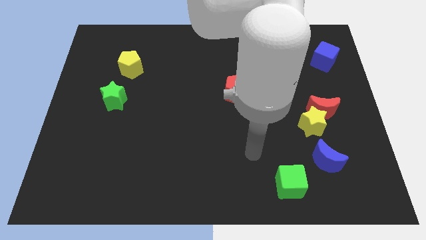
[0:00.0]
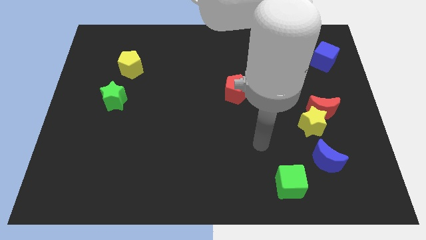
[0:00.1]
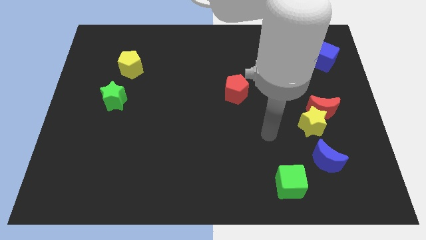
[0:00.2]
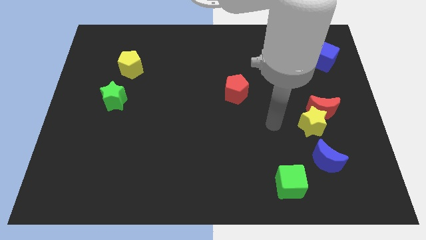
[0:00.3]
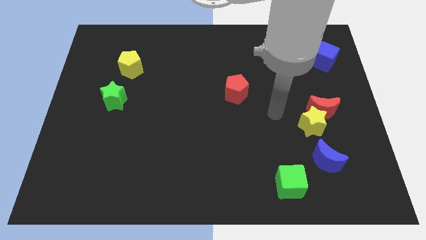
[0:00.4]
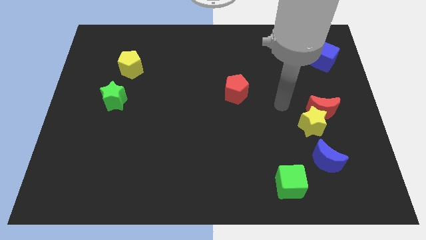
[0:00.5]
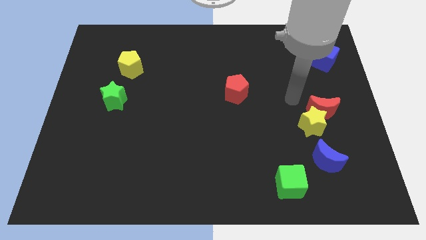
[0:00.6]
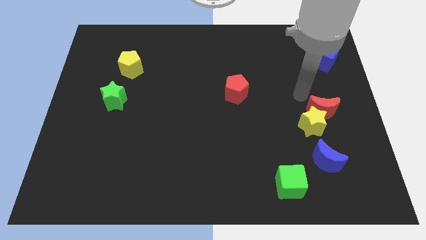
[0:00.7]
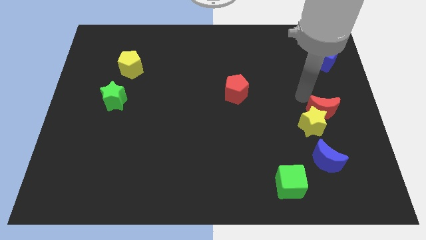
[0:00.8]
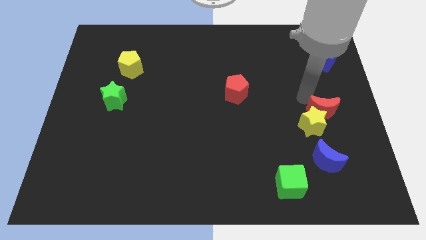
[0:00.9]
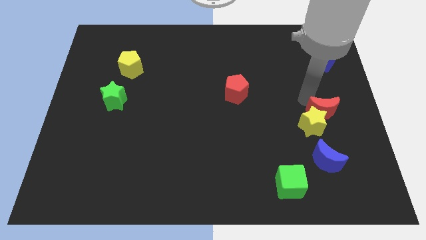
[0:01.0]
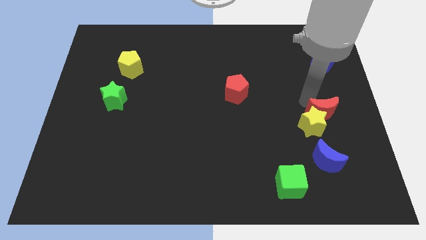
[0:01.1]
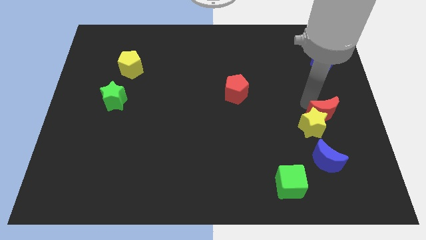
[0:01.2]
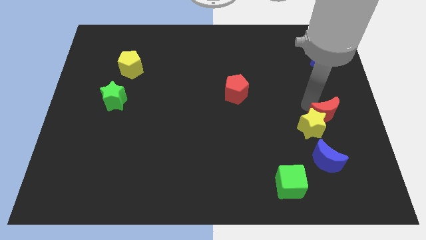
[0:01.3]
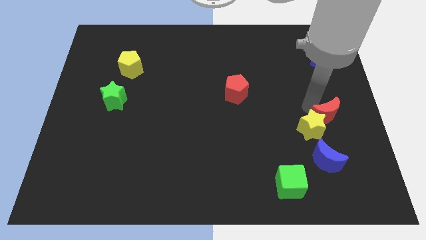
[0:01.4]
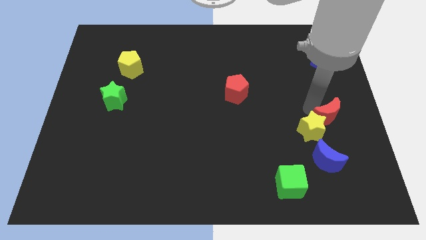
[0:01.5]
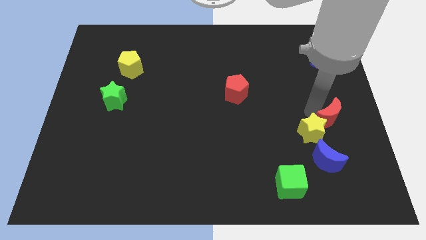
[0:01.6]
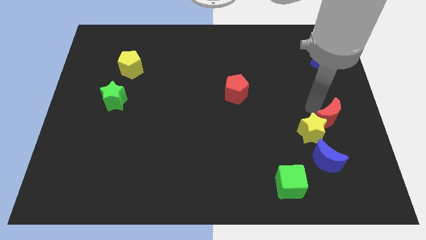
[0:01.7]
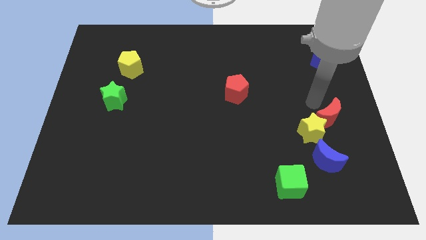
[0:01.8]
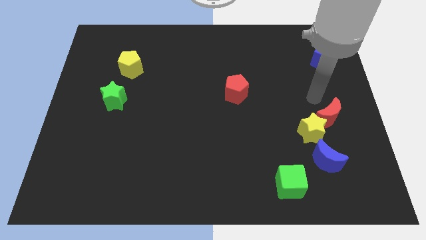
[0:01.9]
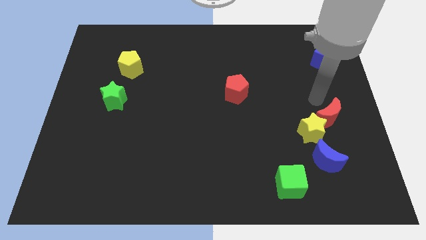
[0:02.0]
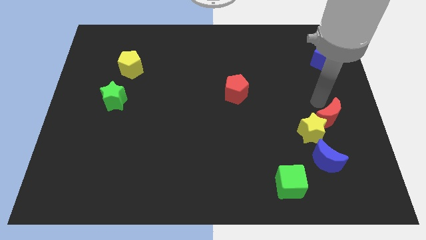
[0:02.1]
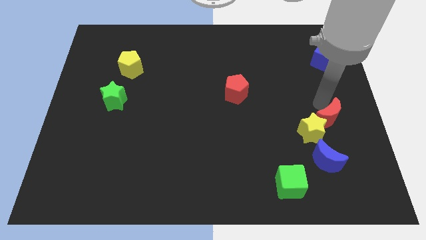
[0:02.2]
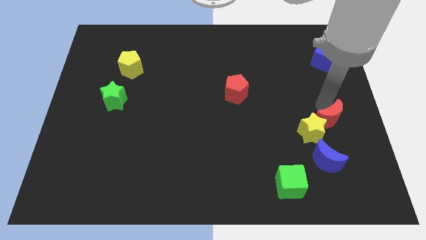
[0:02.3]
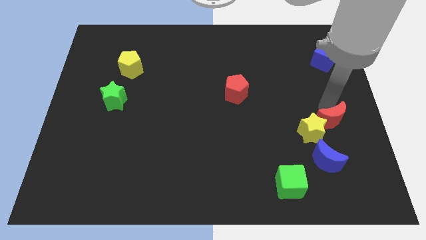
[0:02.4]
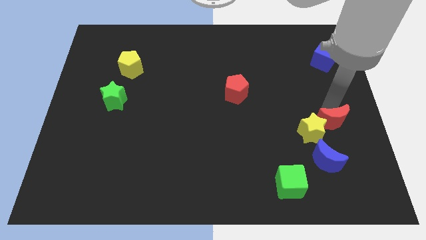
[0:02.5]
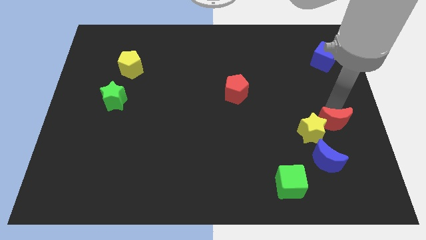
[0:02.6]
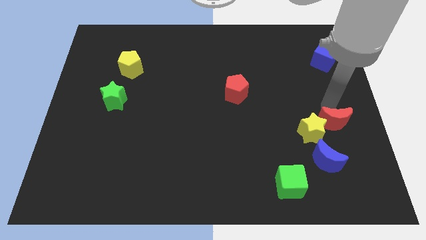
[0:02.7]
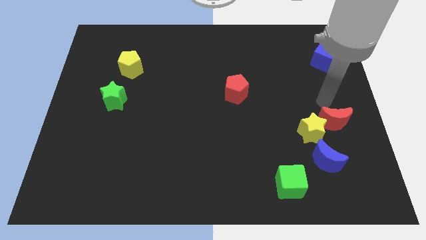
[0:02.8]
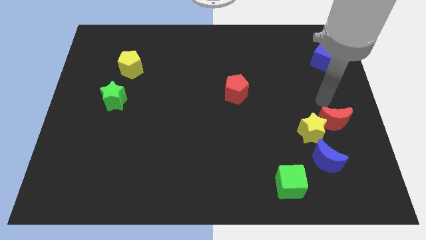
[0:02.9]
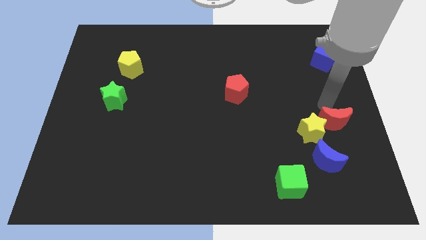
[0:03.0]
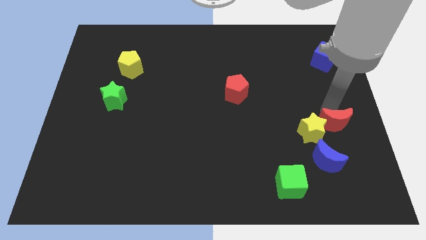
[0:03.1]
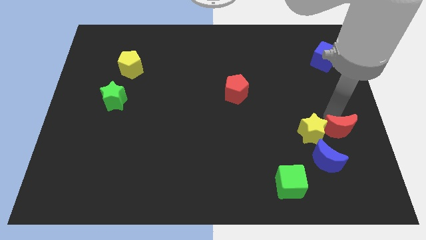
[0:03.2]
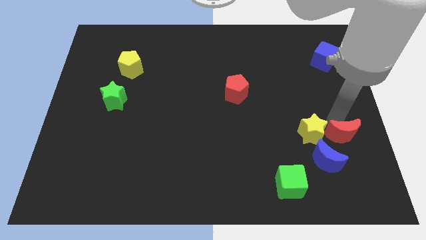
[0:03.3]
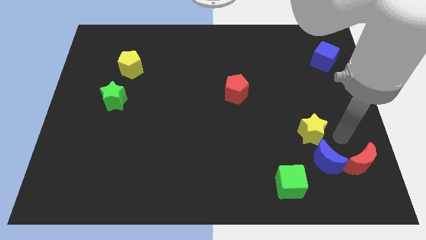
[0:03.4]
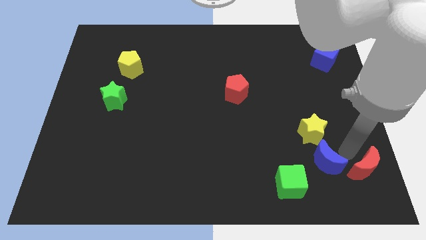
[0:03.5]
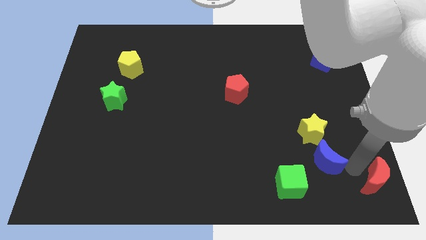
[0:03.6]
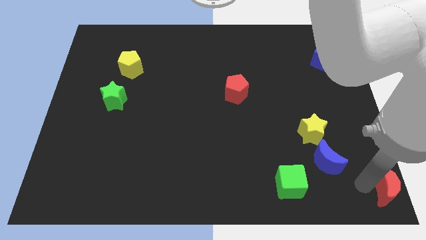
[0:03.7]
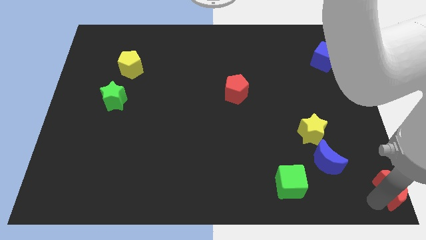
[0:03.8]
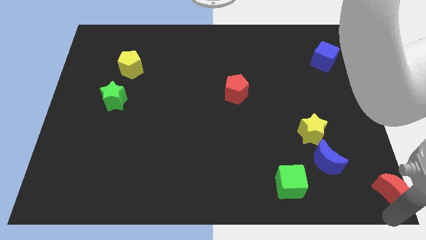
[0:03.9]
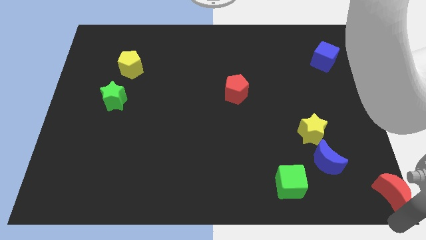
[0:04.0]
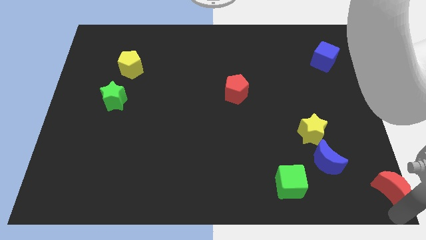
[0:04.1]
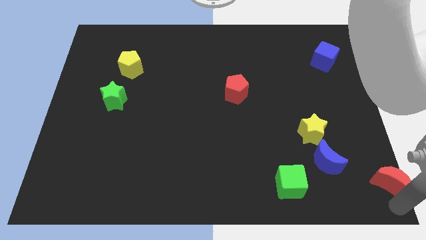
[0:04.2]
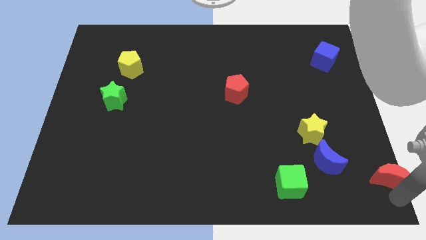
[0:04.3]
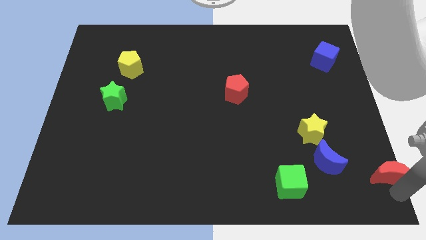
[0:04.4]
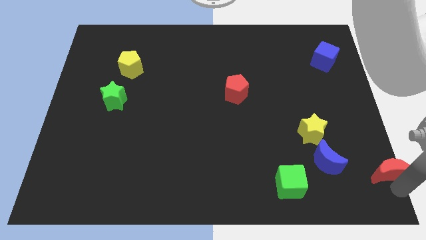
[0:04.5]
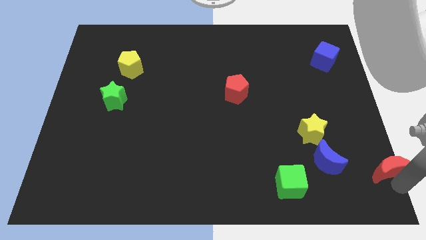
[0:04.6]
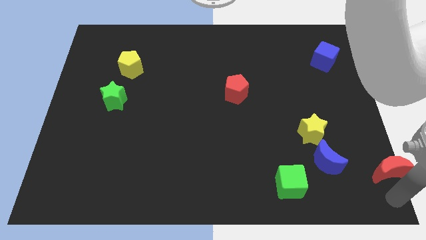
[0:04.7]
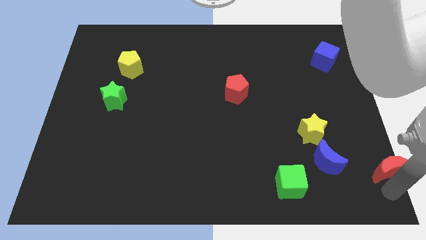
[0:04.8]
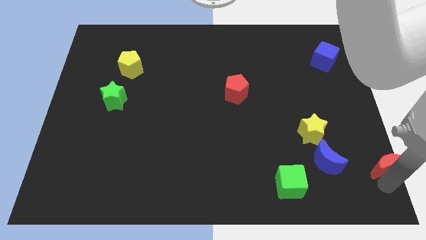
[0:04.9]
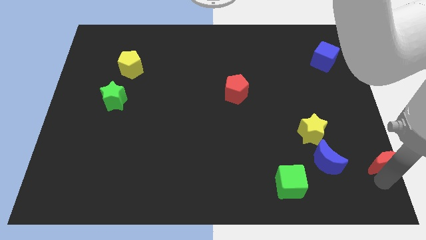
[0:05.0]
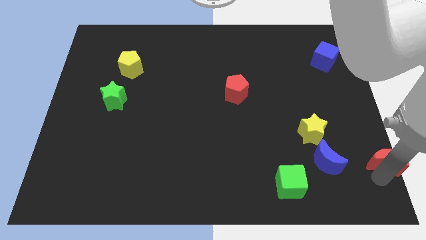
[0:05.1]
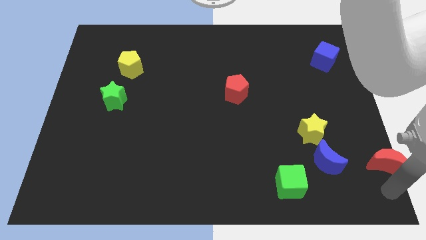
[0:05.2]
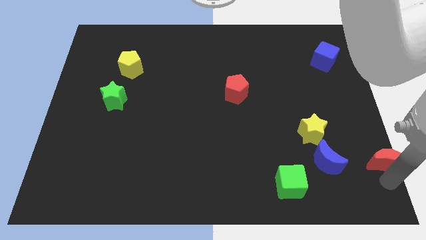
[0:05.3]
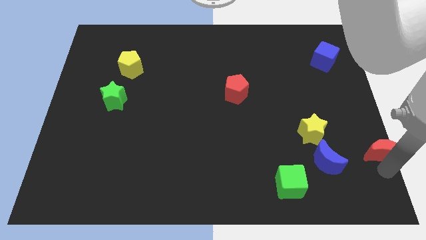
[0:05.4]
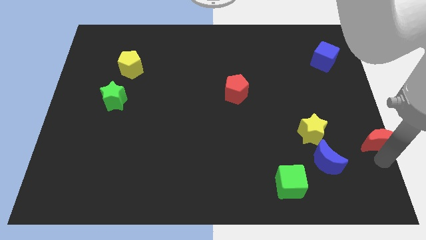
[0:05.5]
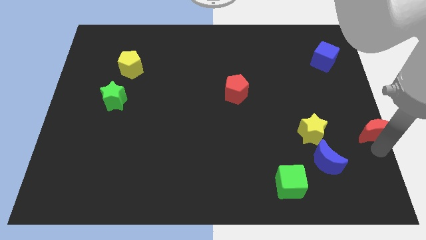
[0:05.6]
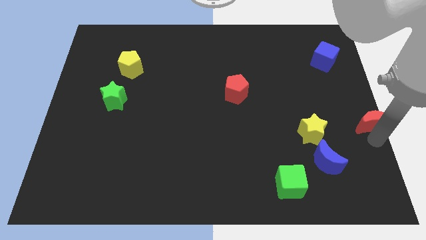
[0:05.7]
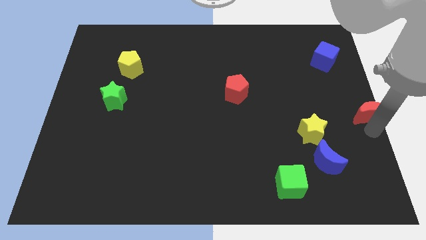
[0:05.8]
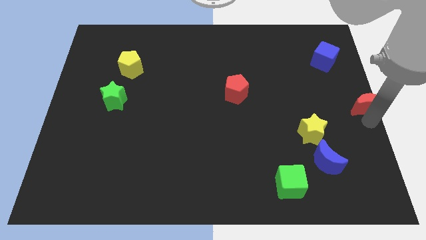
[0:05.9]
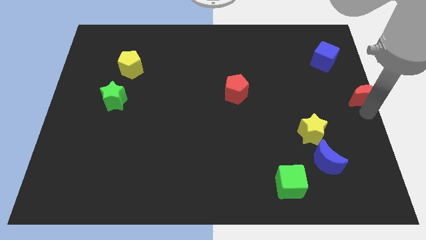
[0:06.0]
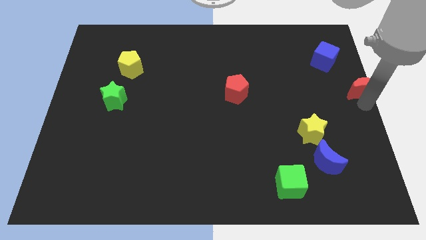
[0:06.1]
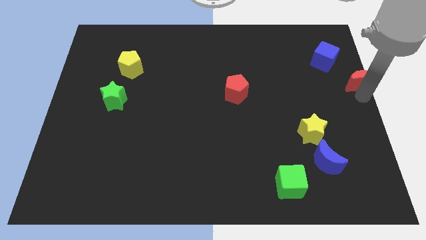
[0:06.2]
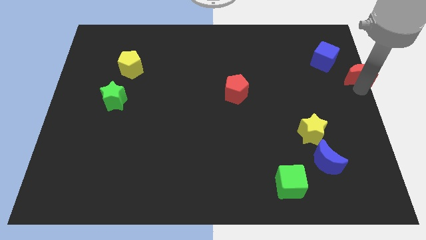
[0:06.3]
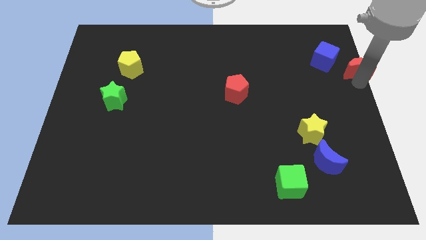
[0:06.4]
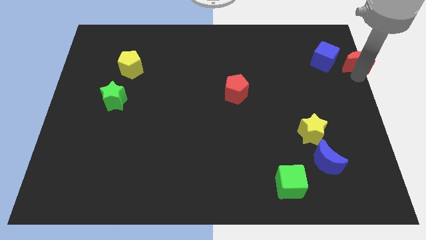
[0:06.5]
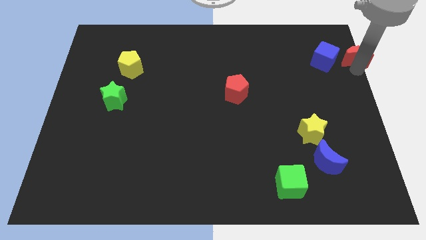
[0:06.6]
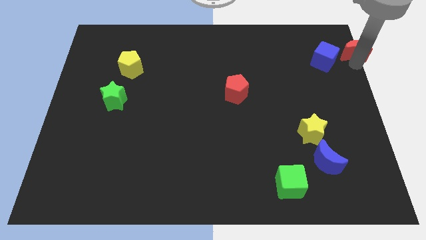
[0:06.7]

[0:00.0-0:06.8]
put the red moon to the top right of the board
